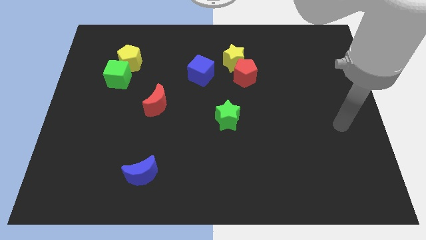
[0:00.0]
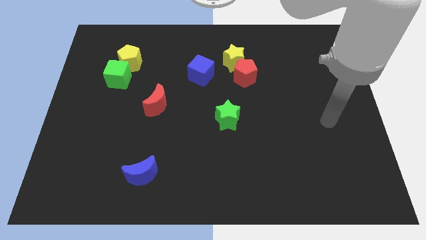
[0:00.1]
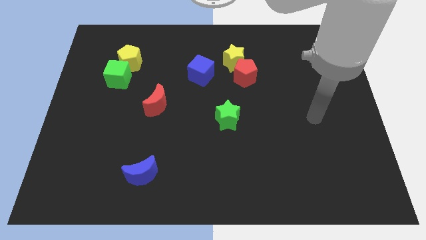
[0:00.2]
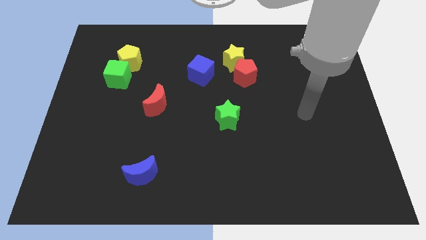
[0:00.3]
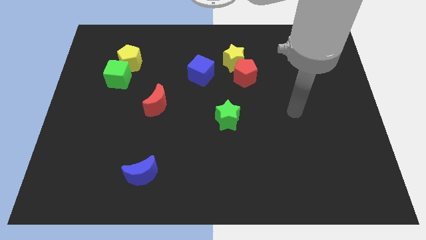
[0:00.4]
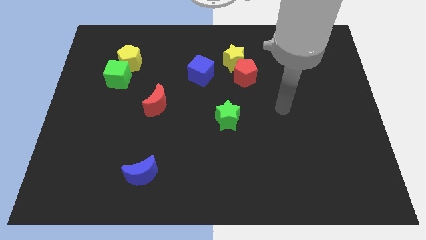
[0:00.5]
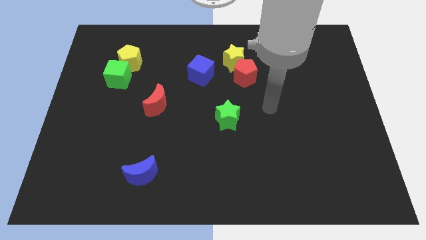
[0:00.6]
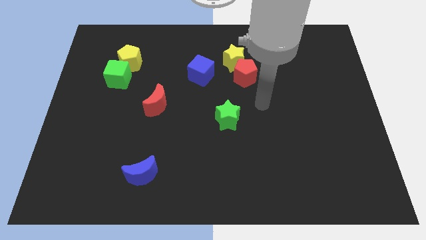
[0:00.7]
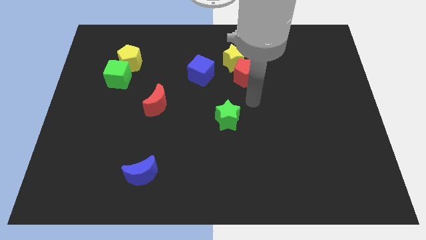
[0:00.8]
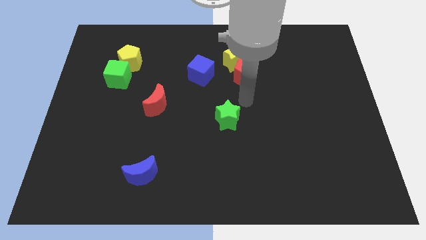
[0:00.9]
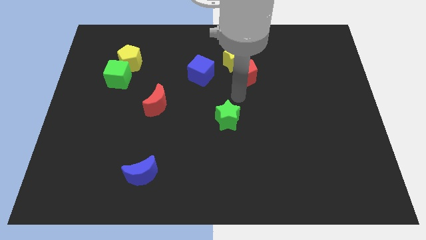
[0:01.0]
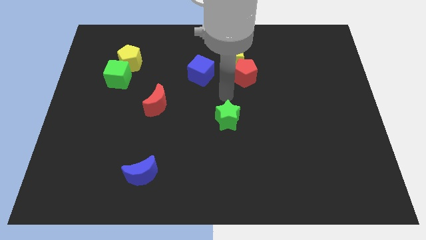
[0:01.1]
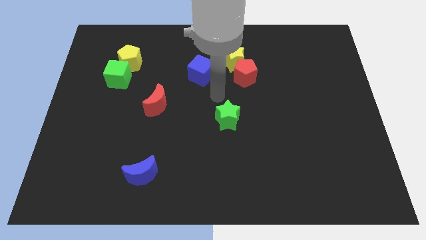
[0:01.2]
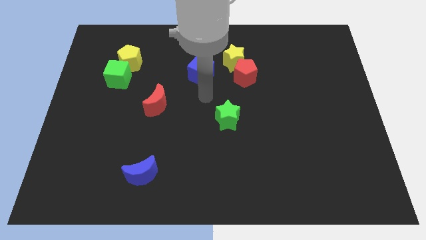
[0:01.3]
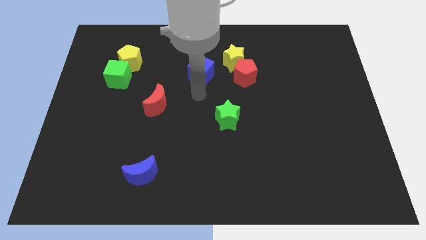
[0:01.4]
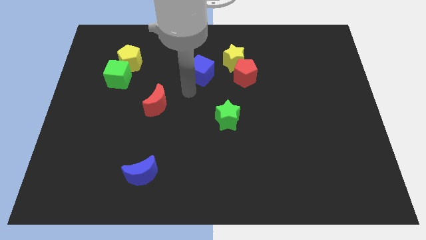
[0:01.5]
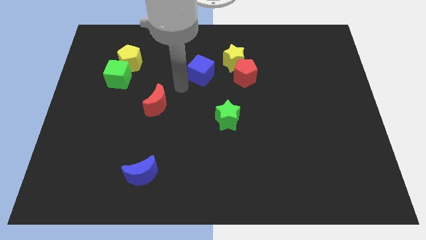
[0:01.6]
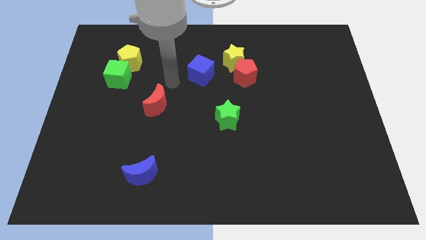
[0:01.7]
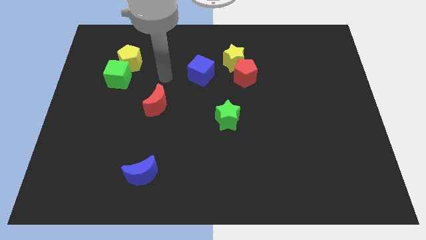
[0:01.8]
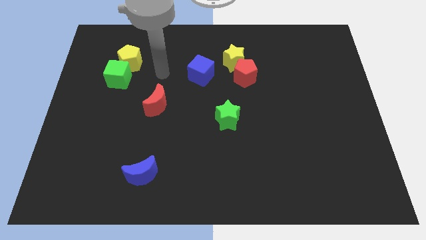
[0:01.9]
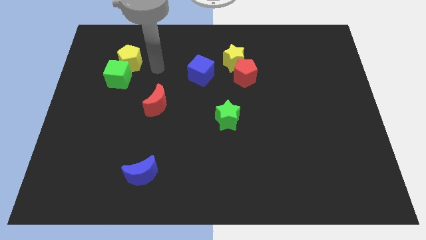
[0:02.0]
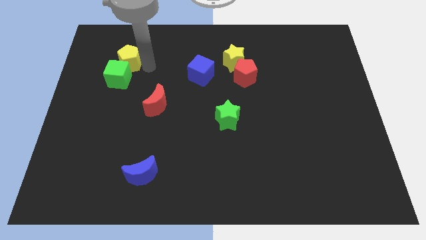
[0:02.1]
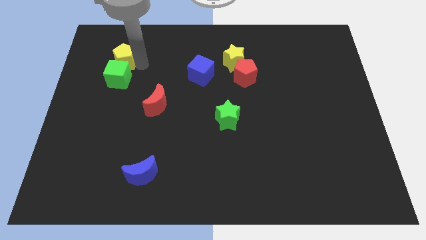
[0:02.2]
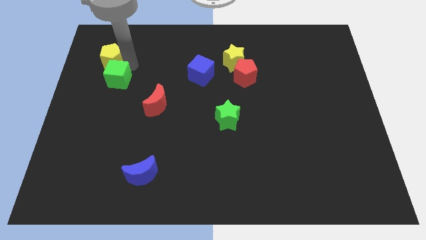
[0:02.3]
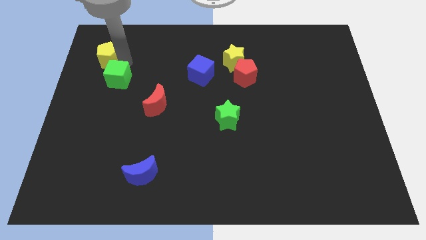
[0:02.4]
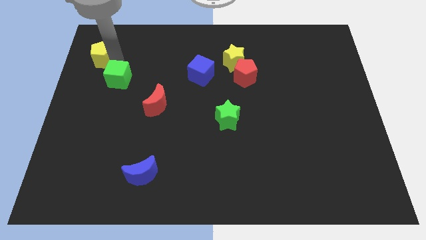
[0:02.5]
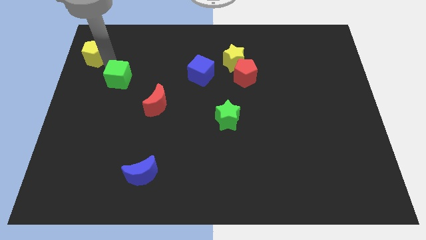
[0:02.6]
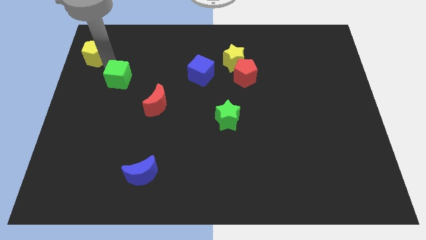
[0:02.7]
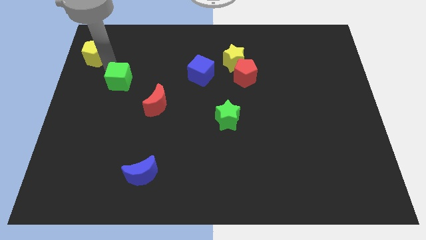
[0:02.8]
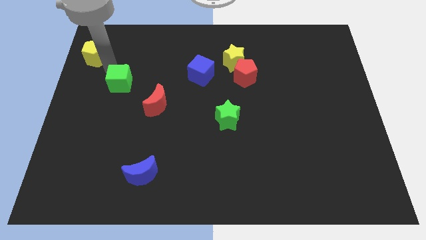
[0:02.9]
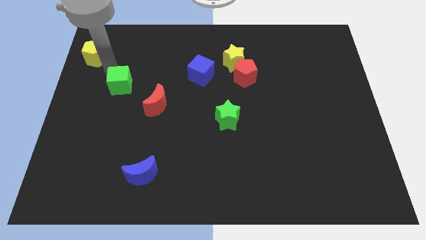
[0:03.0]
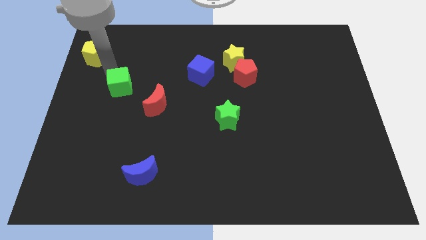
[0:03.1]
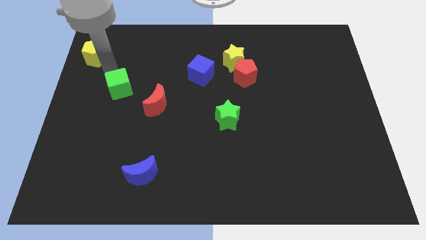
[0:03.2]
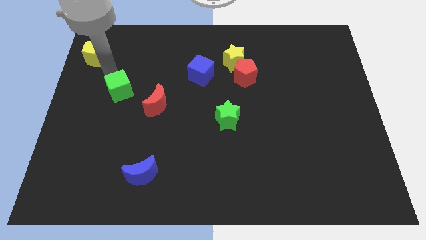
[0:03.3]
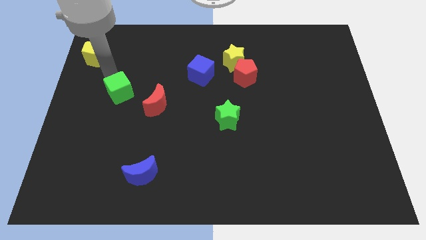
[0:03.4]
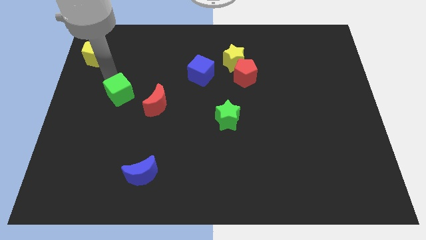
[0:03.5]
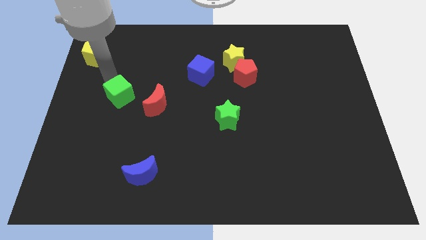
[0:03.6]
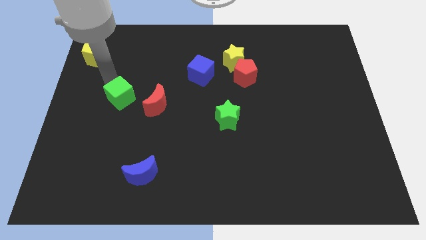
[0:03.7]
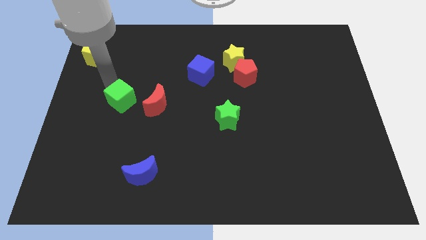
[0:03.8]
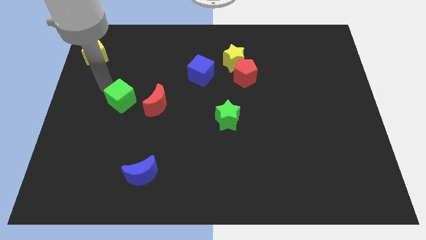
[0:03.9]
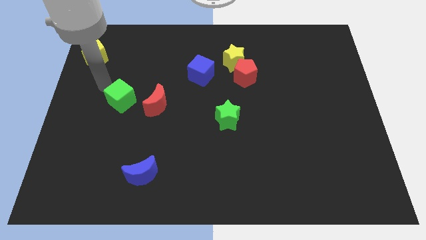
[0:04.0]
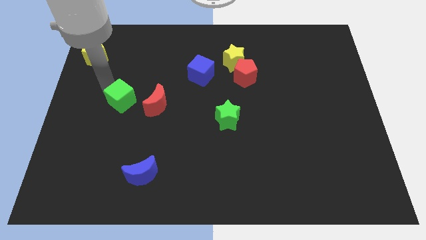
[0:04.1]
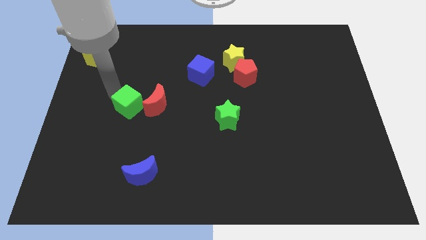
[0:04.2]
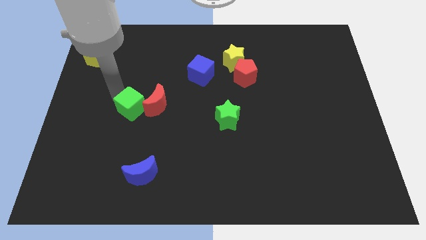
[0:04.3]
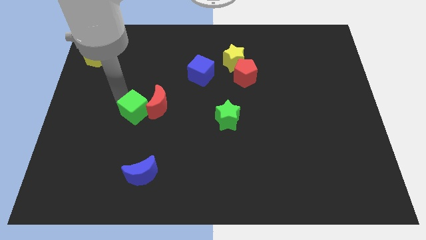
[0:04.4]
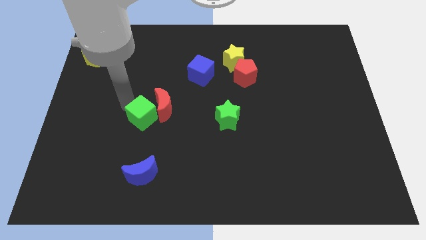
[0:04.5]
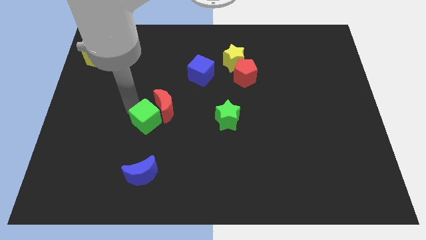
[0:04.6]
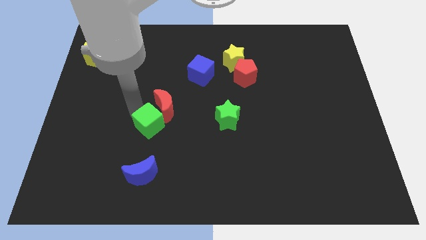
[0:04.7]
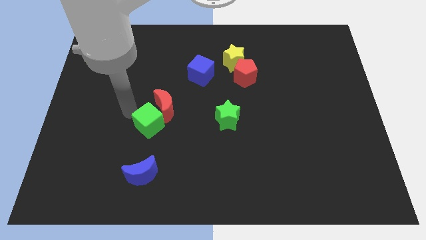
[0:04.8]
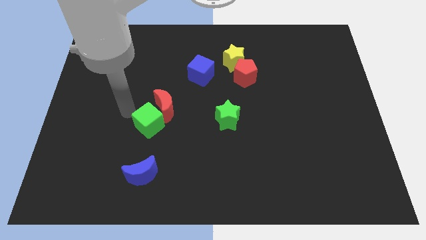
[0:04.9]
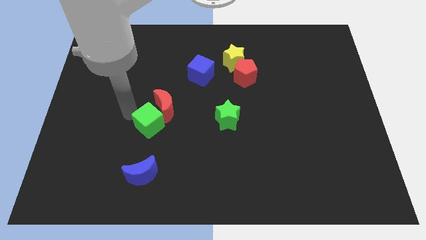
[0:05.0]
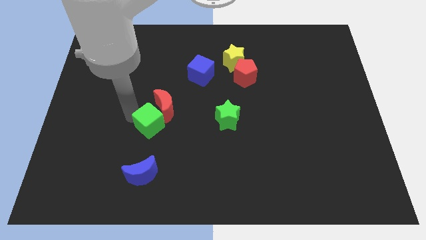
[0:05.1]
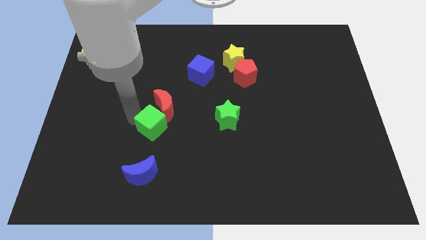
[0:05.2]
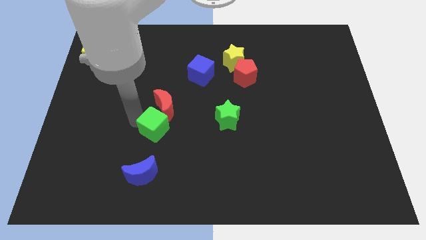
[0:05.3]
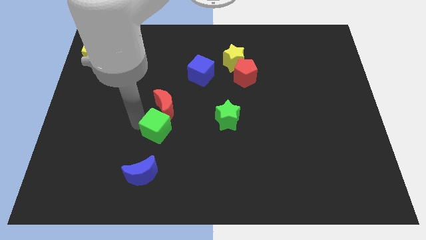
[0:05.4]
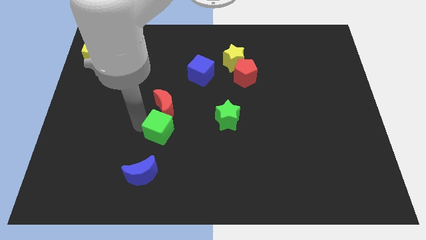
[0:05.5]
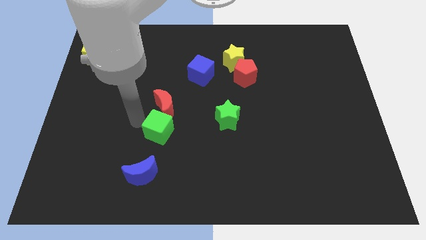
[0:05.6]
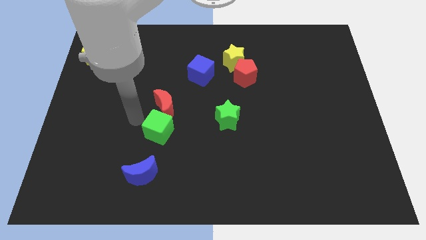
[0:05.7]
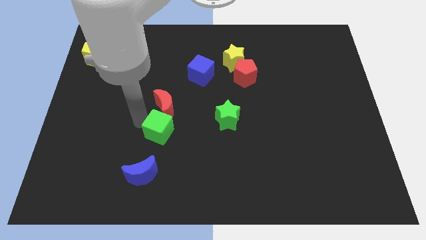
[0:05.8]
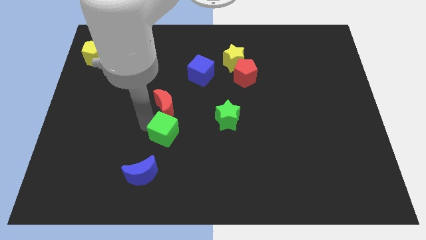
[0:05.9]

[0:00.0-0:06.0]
slide the green cube down and right diagonally

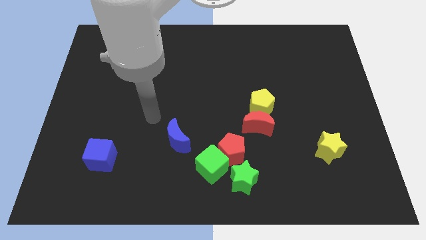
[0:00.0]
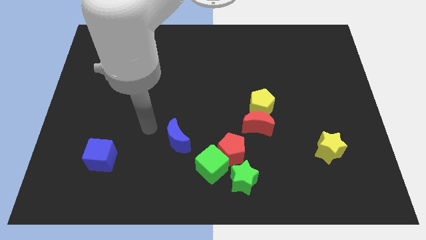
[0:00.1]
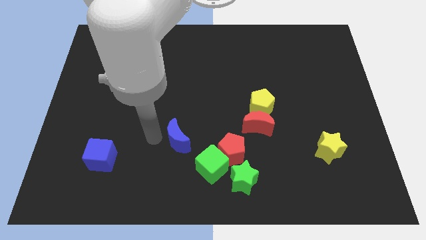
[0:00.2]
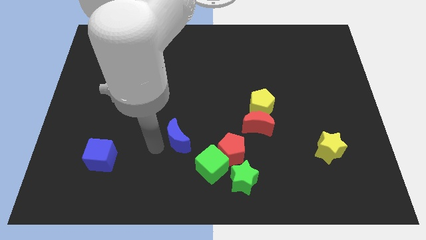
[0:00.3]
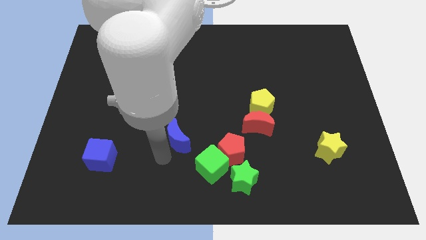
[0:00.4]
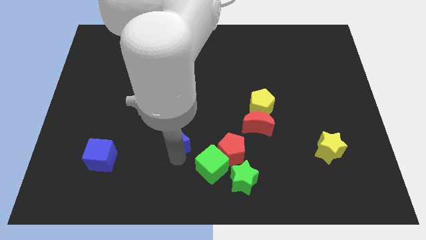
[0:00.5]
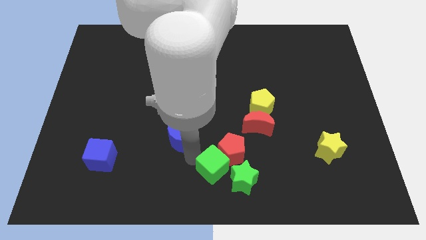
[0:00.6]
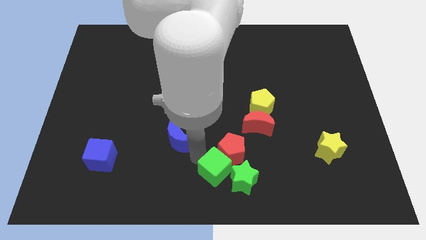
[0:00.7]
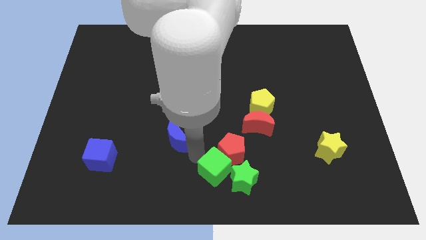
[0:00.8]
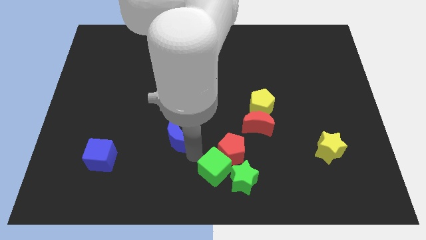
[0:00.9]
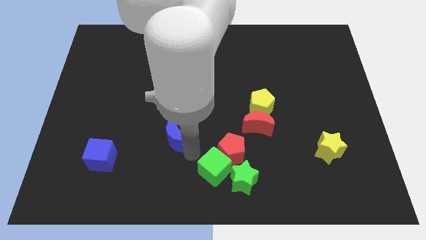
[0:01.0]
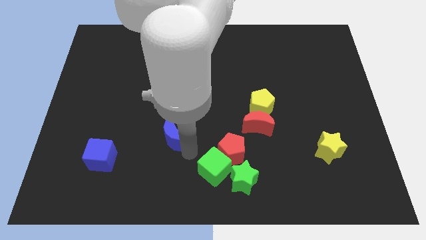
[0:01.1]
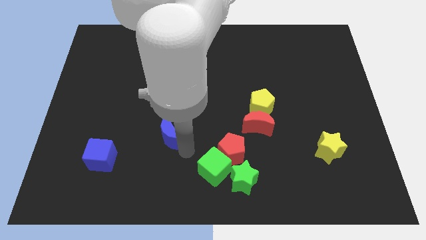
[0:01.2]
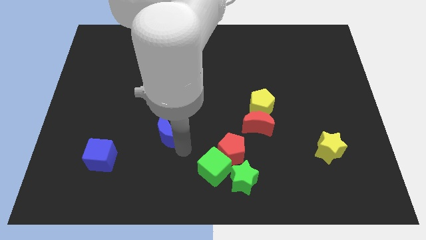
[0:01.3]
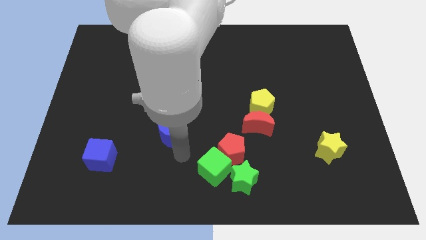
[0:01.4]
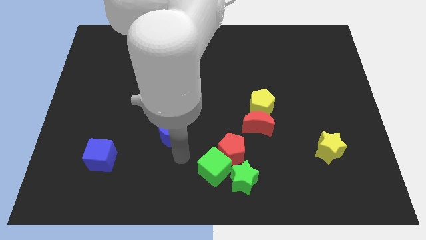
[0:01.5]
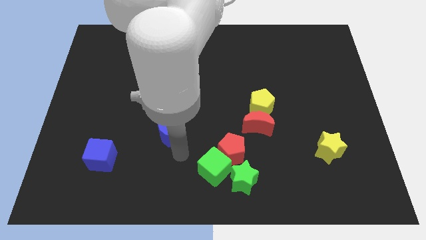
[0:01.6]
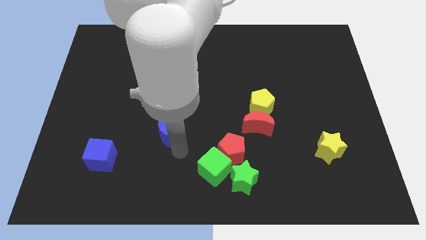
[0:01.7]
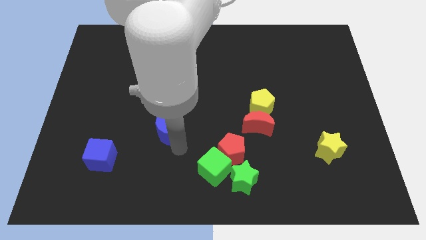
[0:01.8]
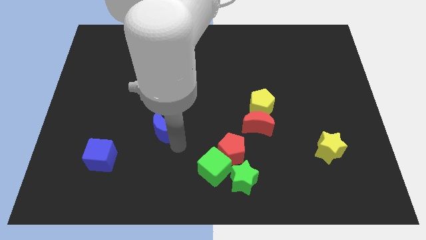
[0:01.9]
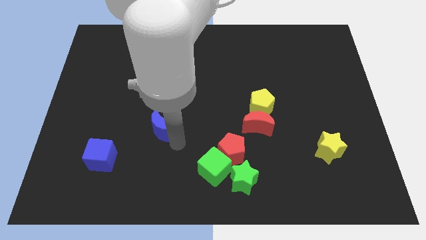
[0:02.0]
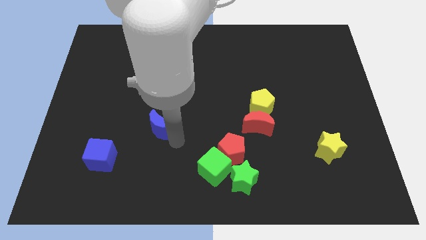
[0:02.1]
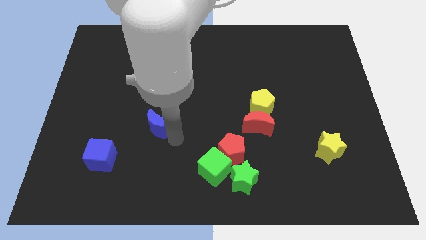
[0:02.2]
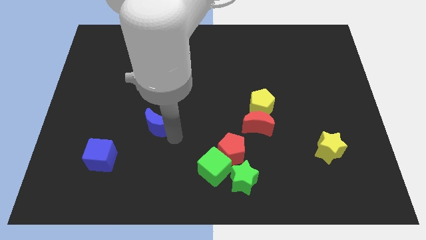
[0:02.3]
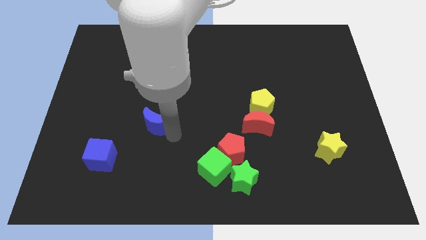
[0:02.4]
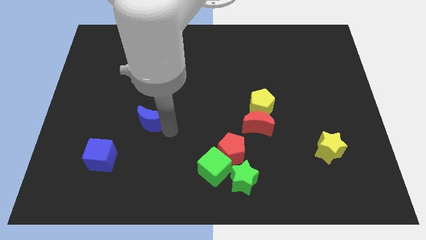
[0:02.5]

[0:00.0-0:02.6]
slightly move the blue moon up and left
